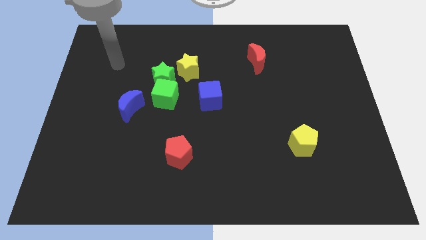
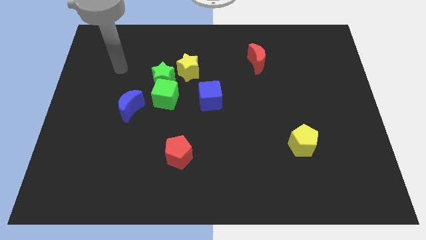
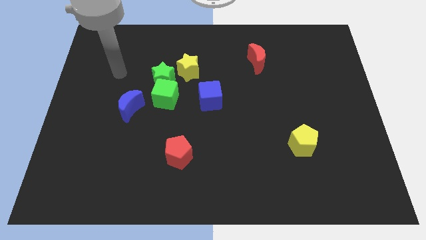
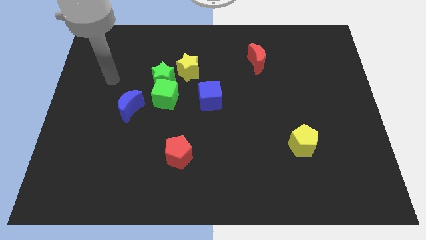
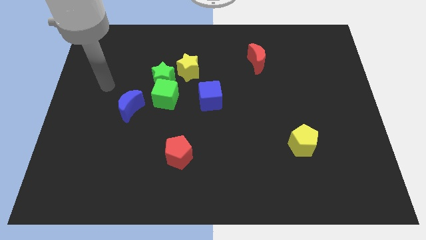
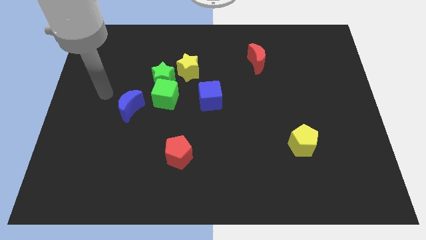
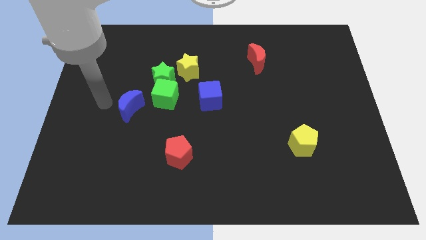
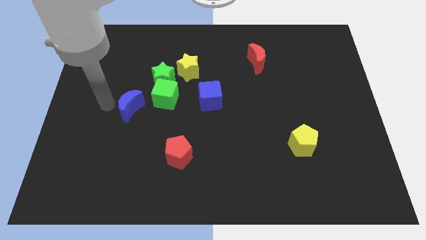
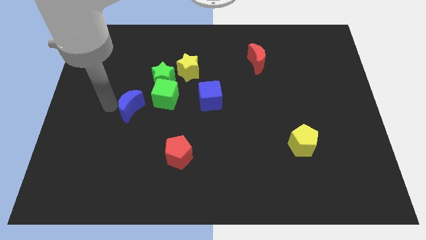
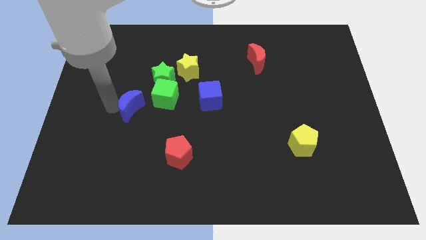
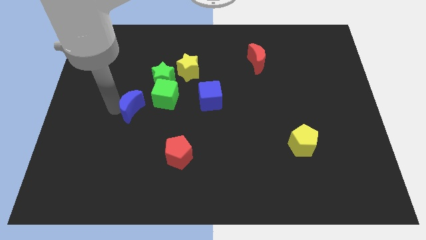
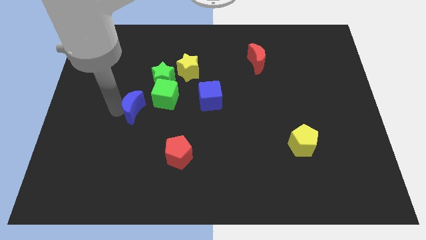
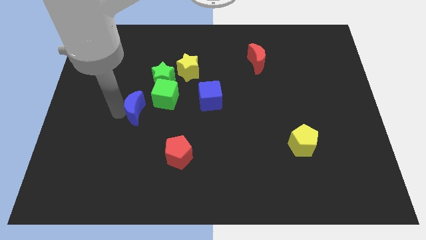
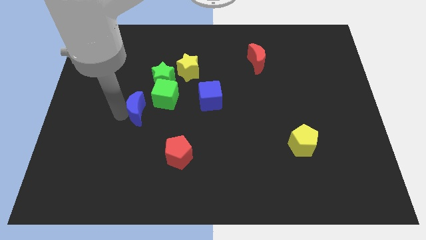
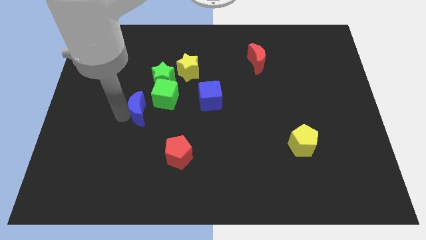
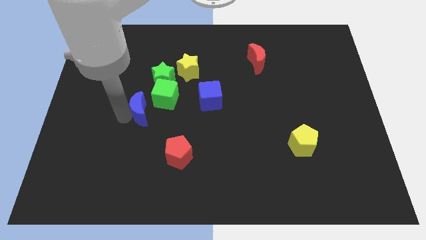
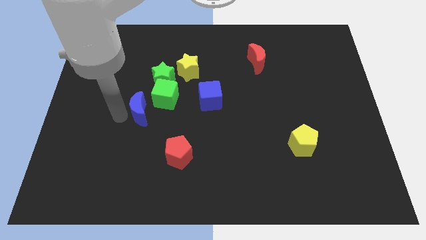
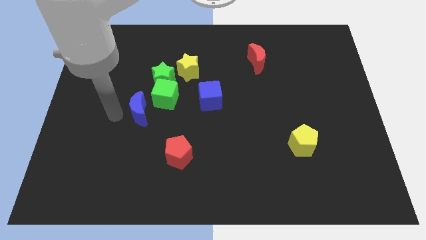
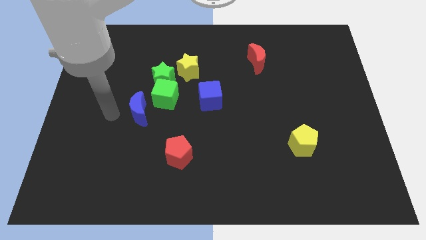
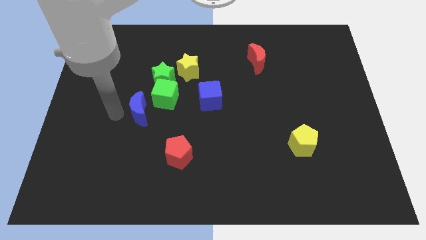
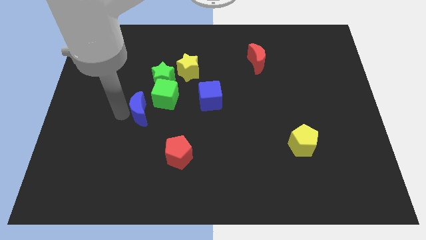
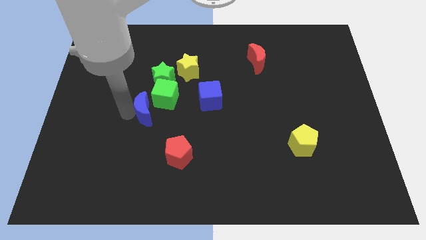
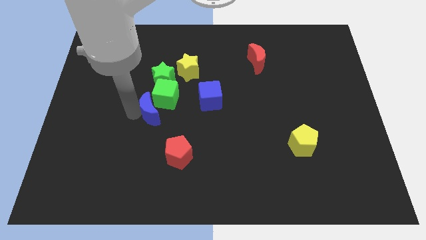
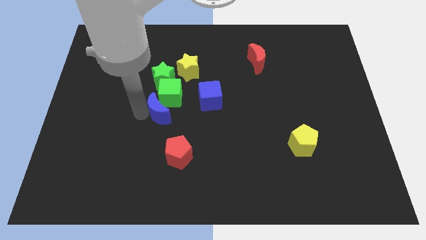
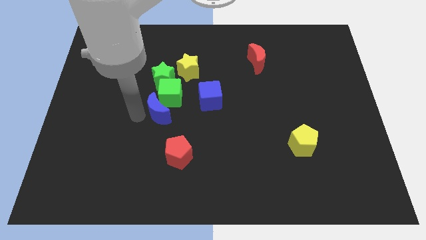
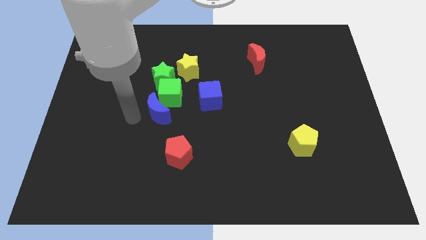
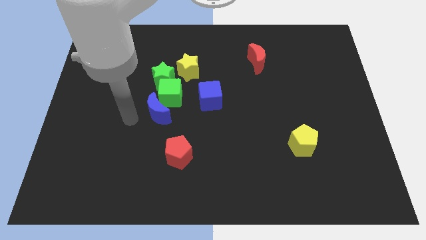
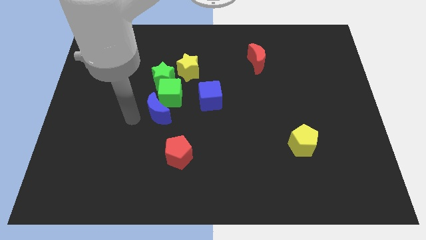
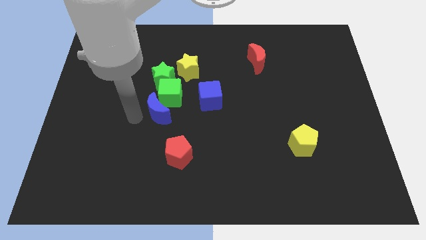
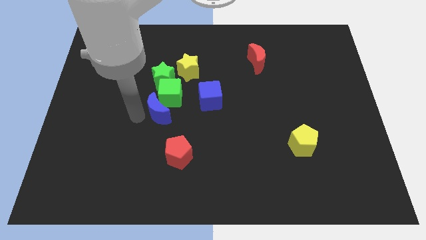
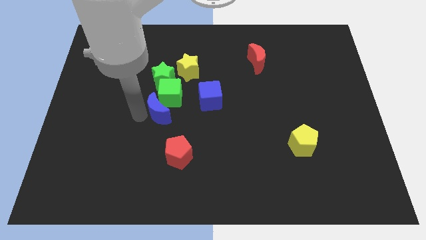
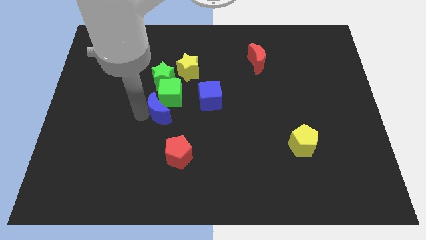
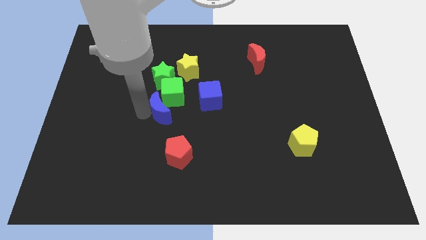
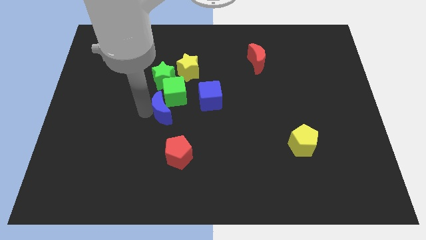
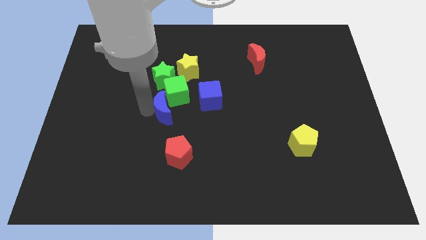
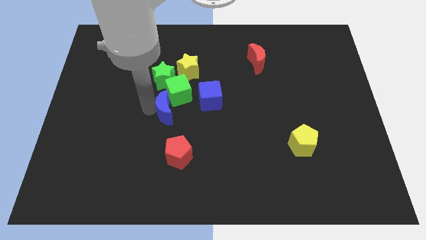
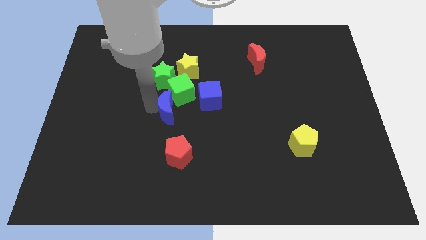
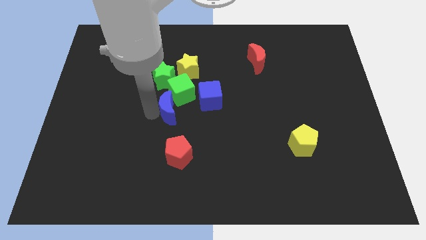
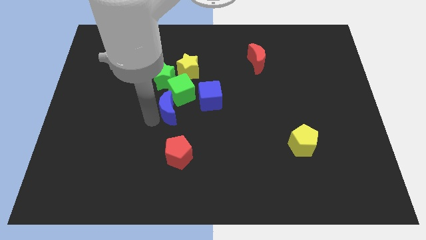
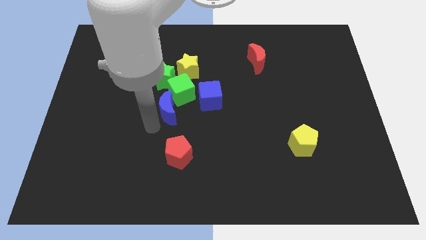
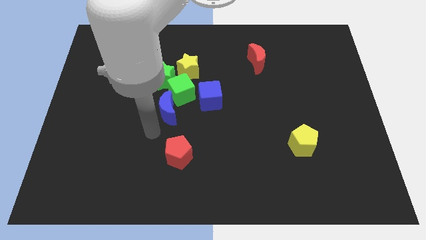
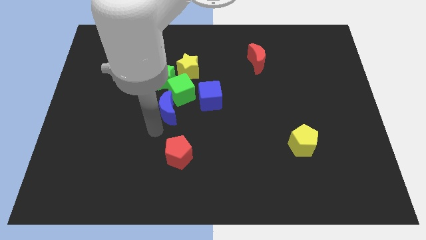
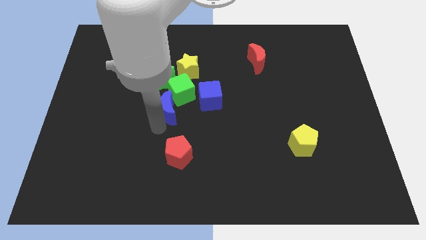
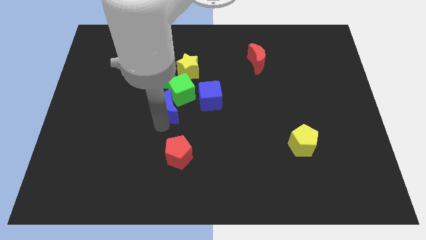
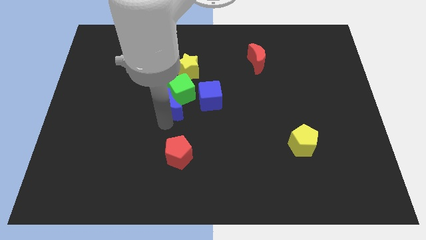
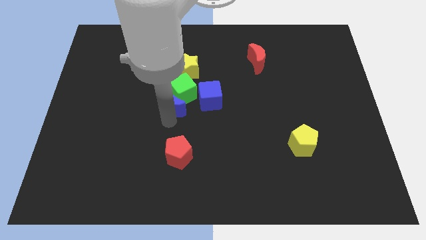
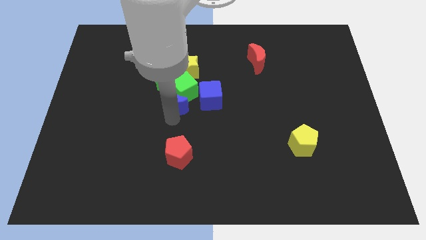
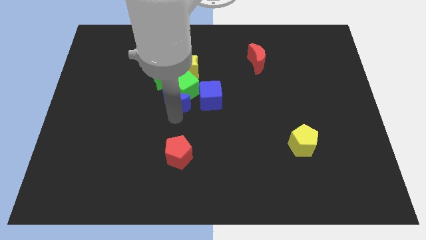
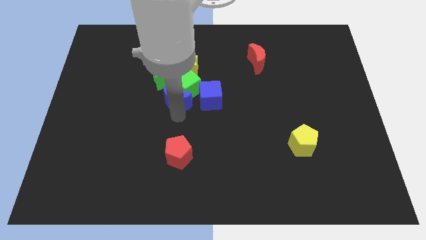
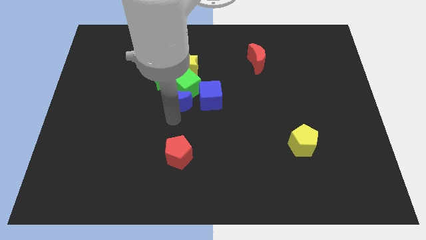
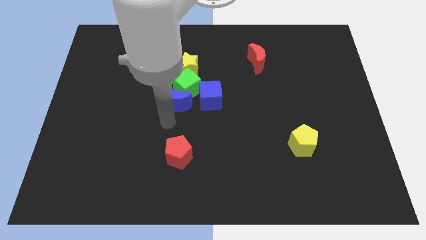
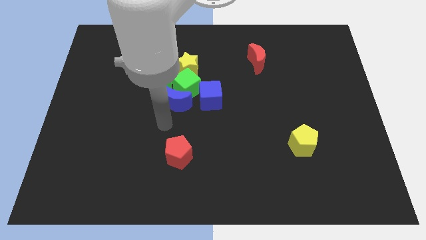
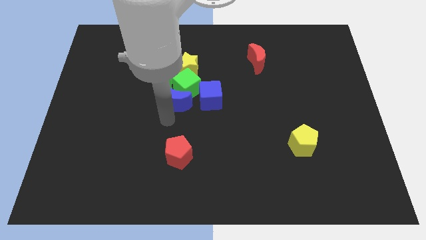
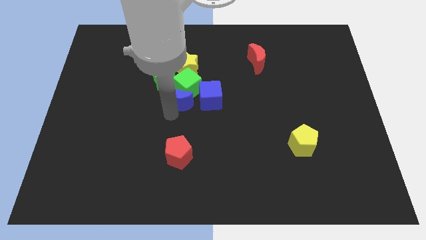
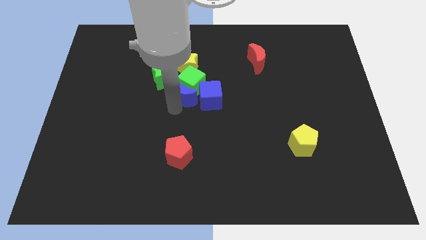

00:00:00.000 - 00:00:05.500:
move the blue moon diagonally up and to the left of the blue cube

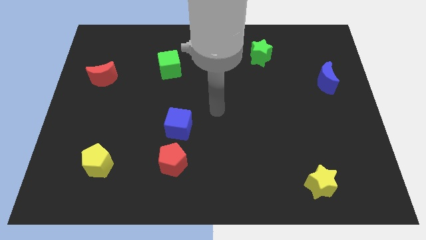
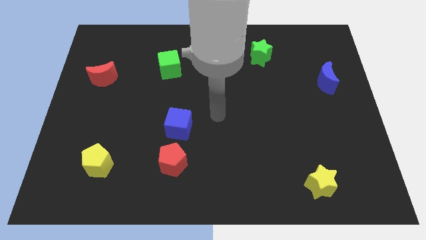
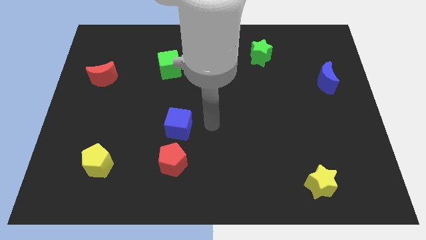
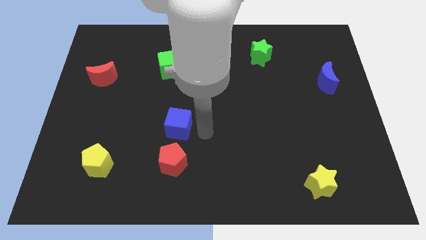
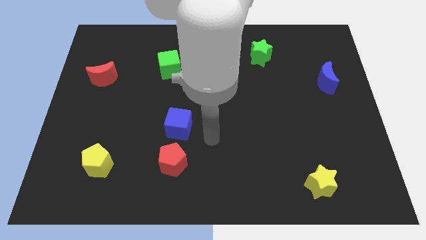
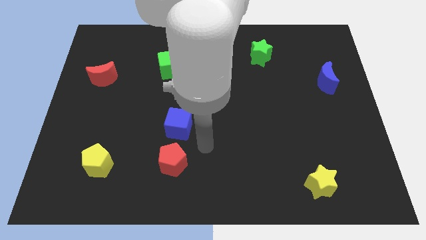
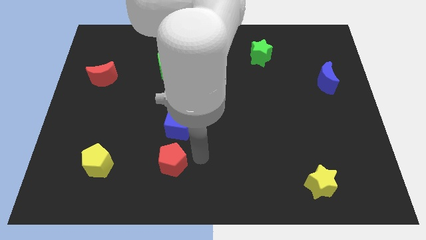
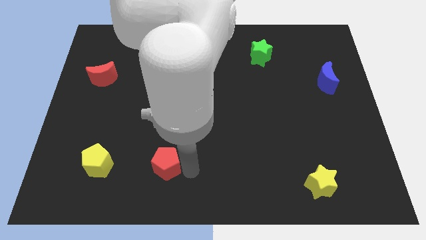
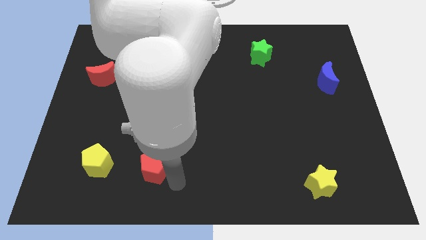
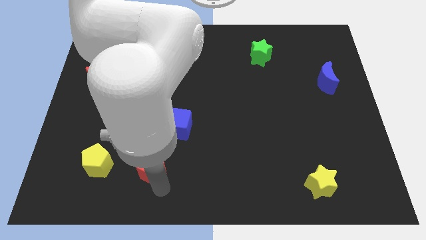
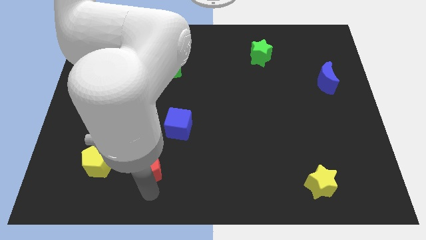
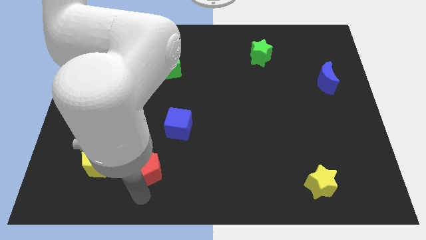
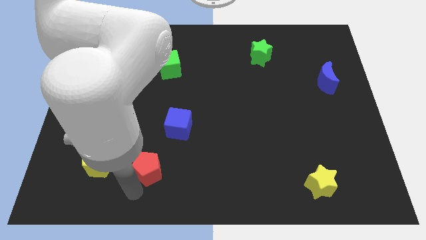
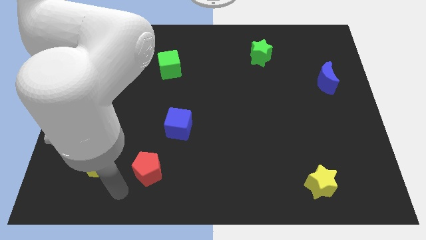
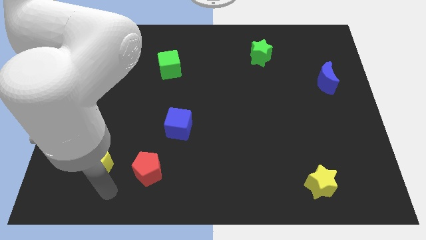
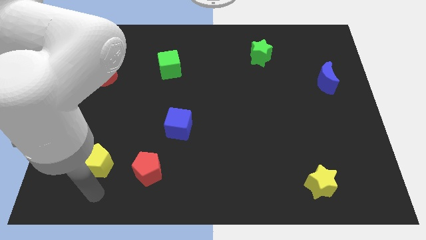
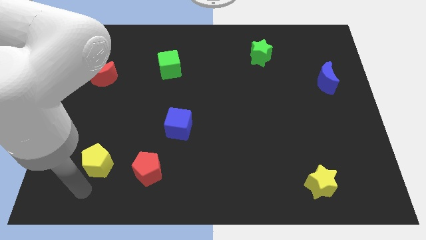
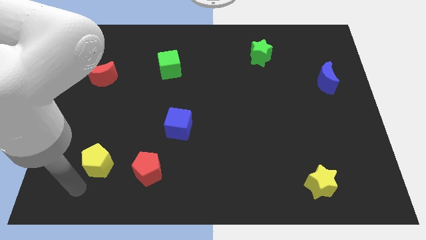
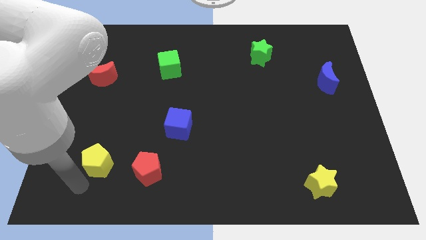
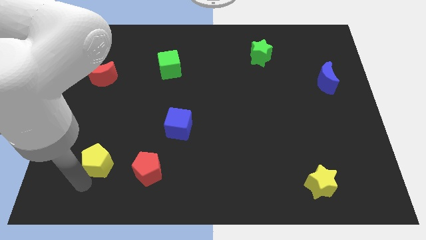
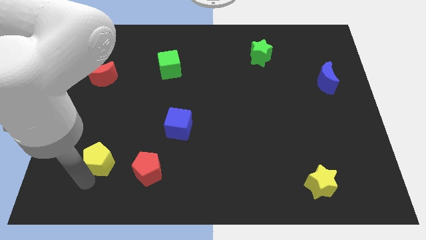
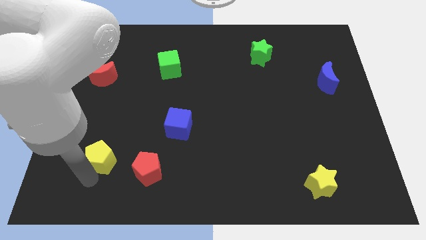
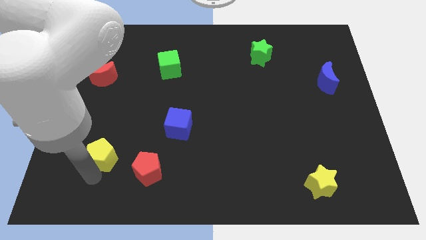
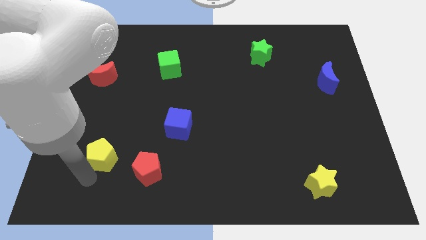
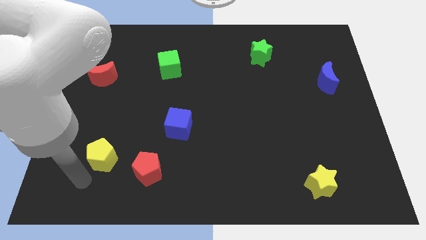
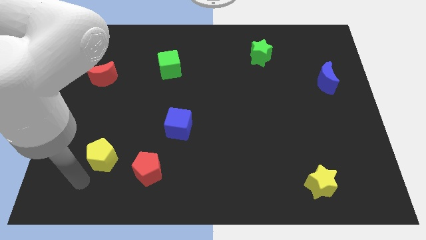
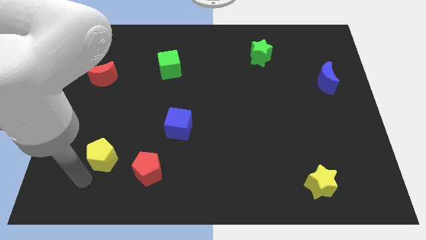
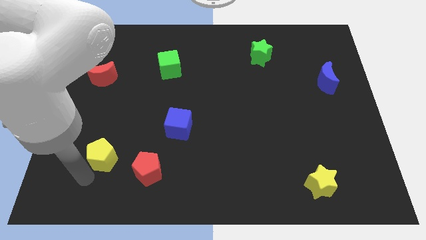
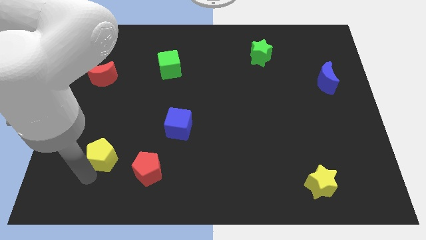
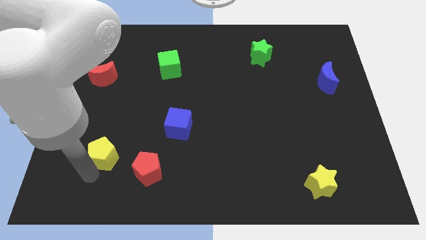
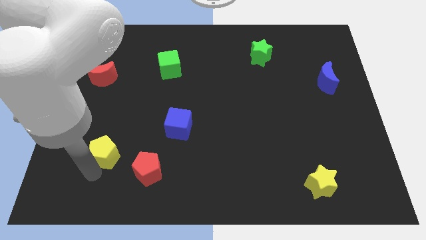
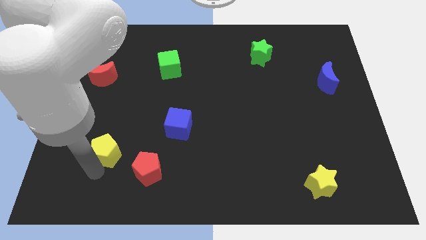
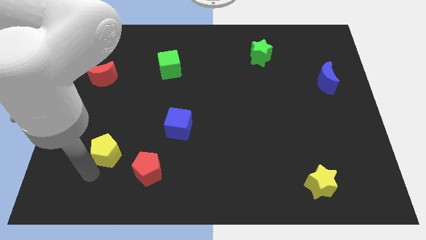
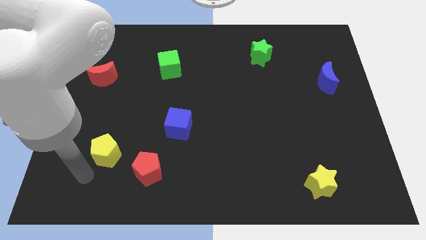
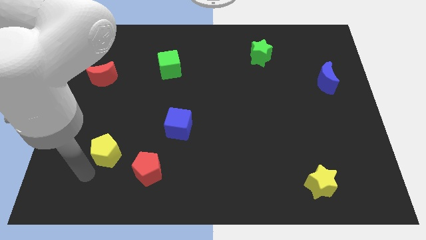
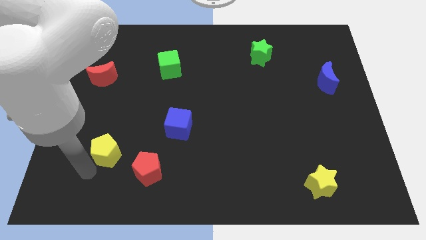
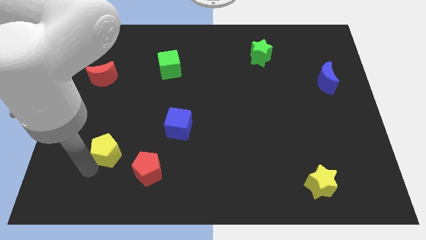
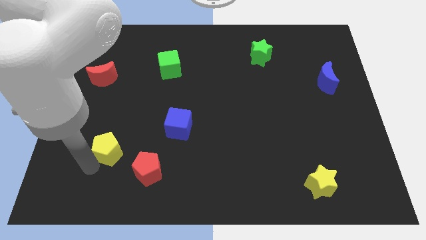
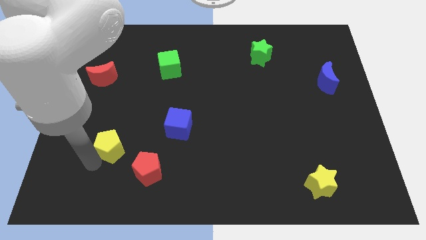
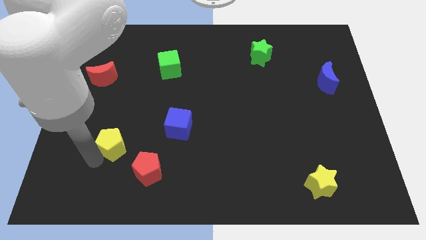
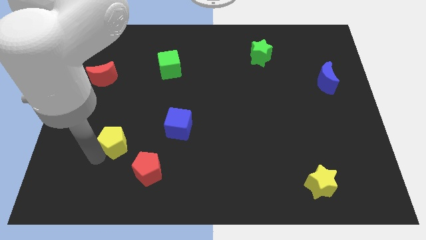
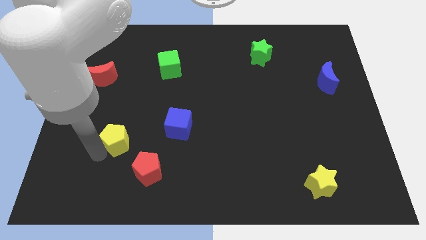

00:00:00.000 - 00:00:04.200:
slide the yellow pentagon to the left of the blue cube
